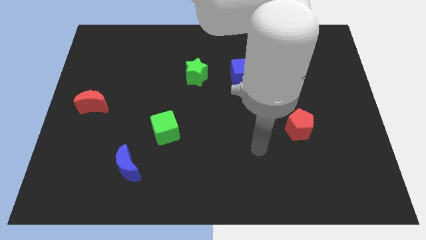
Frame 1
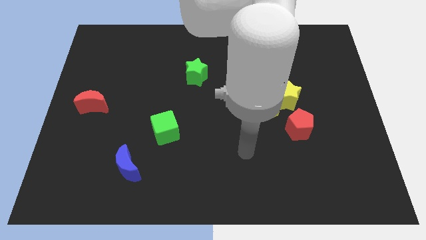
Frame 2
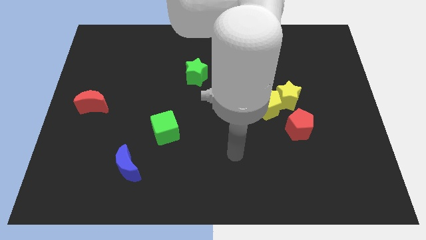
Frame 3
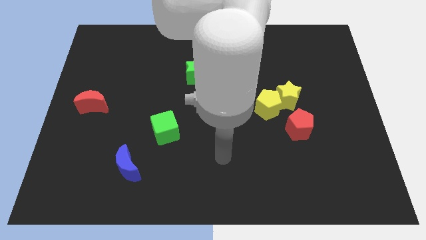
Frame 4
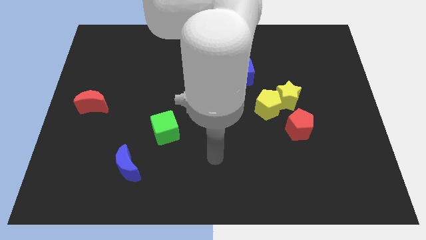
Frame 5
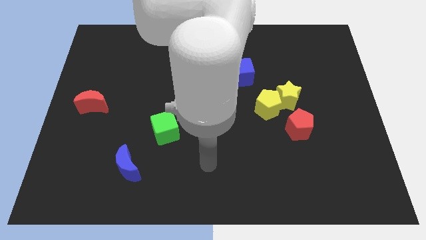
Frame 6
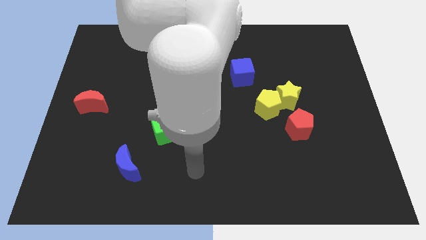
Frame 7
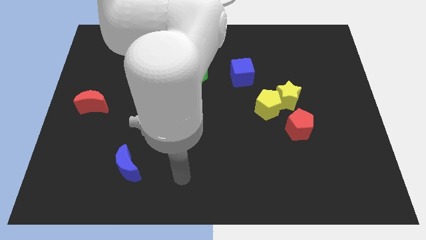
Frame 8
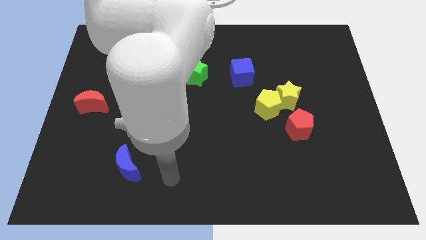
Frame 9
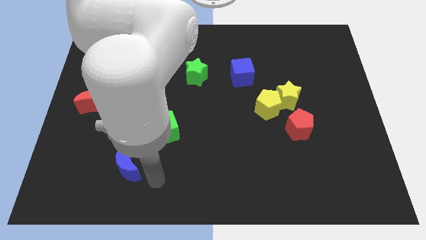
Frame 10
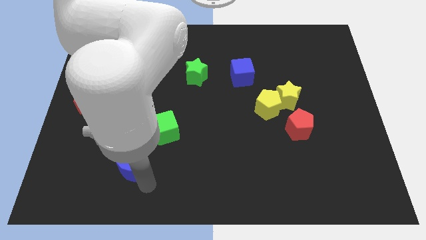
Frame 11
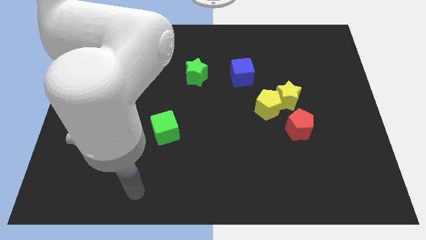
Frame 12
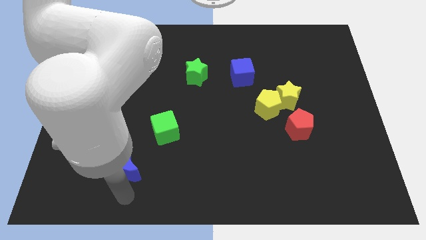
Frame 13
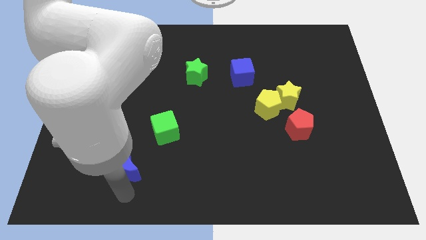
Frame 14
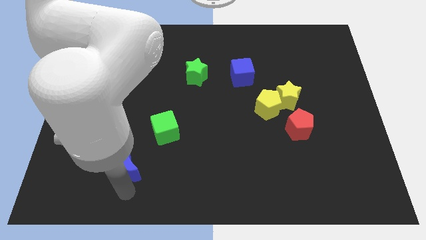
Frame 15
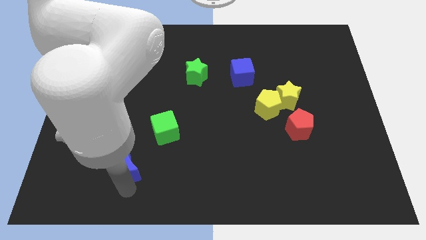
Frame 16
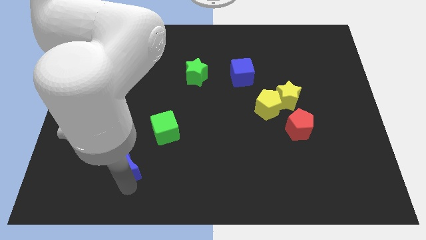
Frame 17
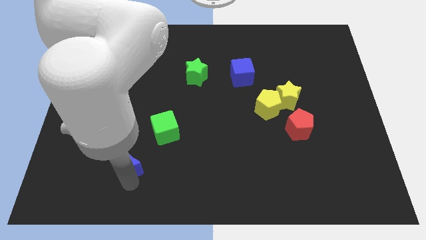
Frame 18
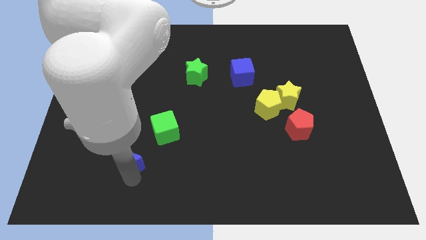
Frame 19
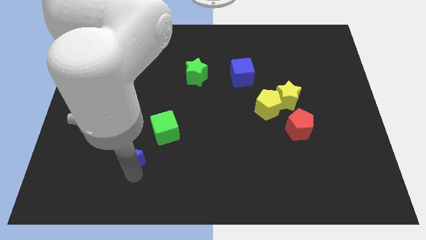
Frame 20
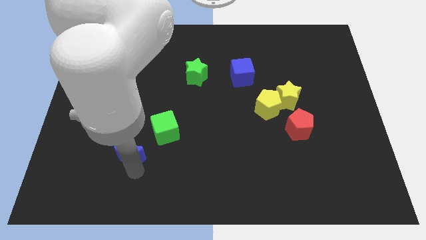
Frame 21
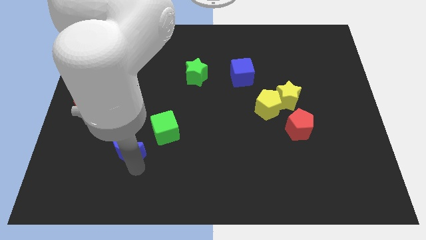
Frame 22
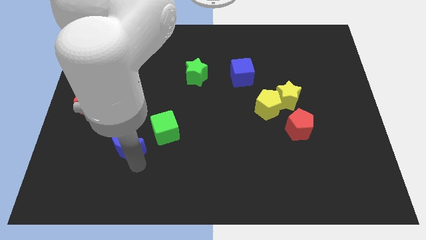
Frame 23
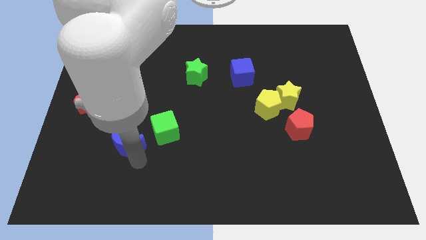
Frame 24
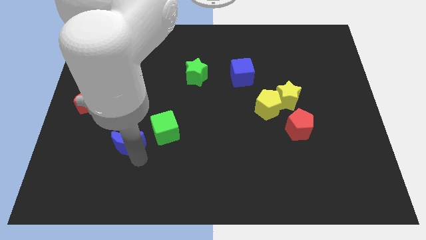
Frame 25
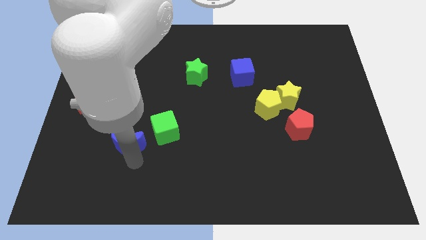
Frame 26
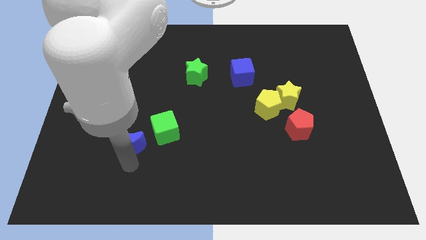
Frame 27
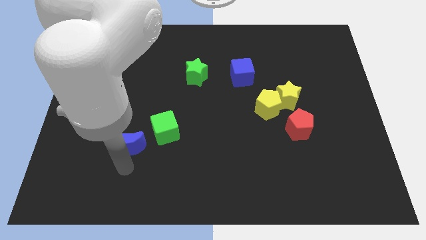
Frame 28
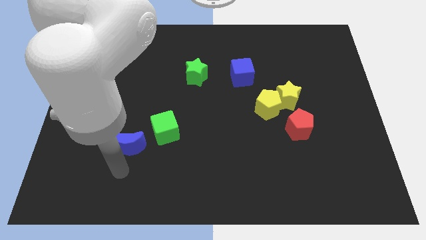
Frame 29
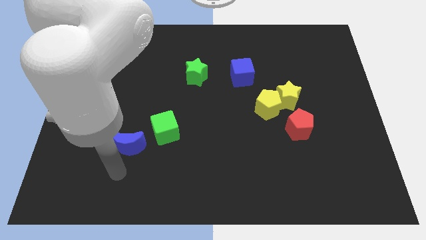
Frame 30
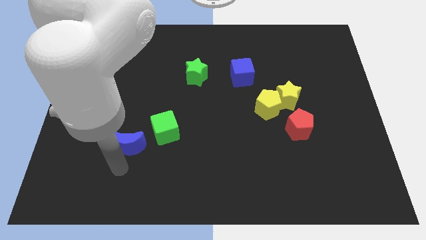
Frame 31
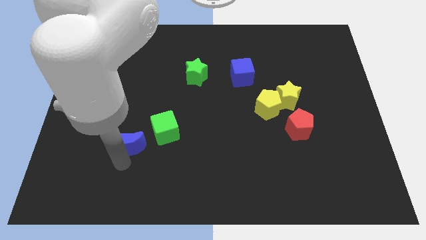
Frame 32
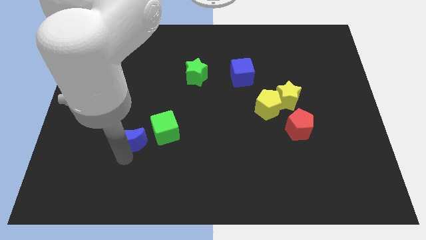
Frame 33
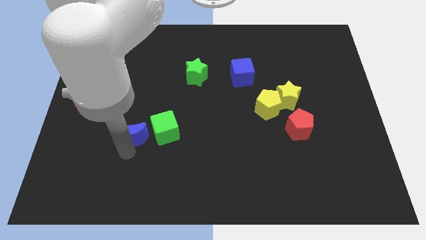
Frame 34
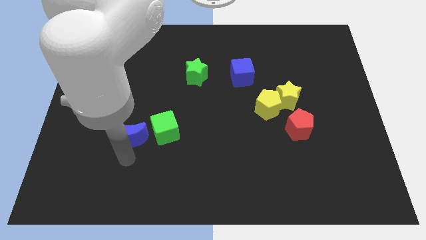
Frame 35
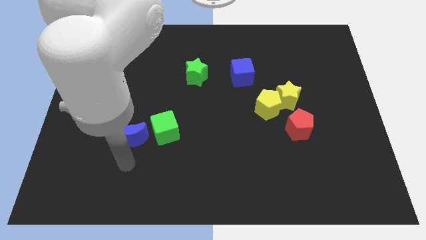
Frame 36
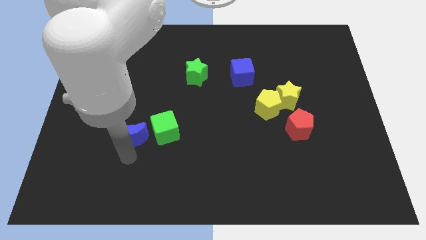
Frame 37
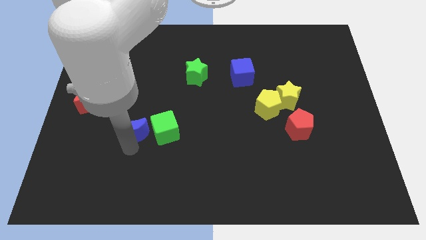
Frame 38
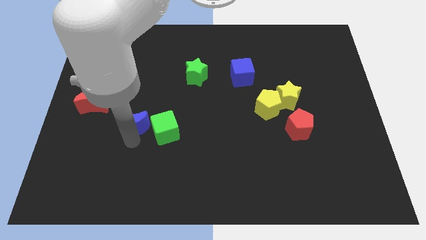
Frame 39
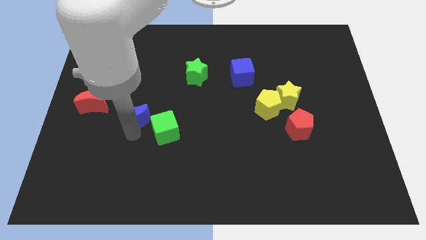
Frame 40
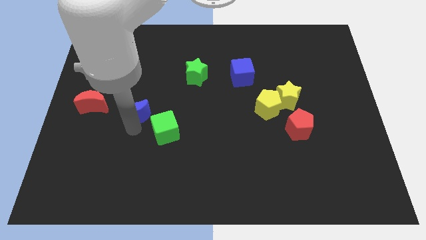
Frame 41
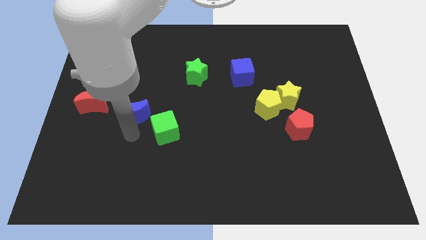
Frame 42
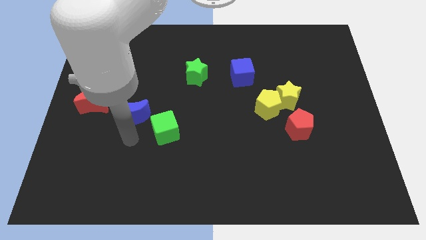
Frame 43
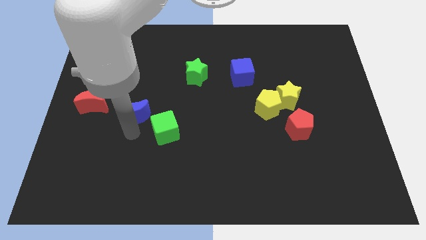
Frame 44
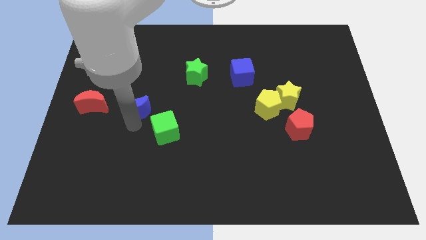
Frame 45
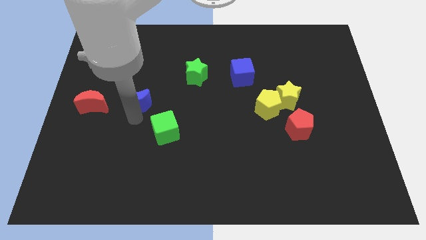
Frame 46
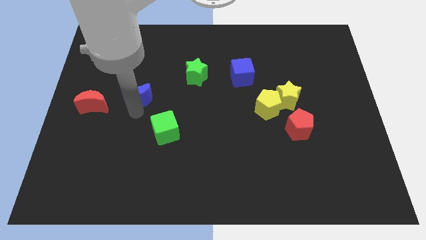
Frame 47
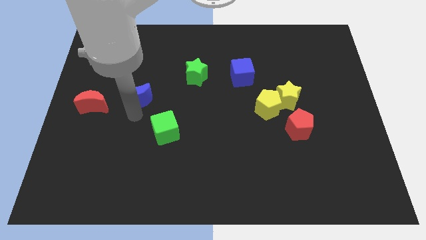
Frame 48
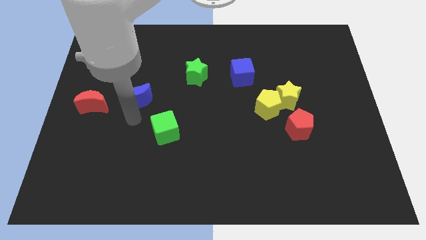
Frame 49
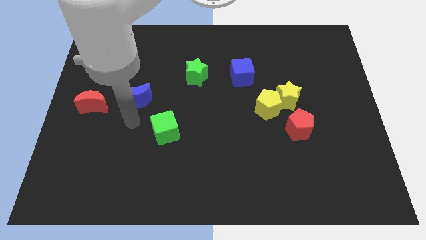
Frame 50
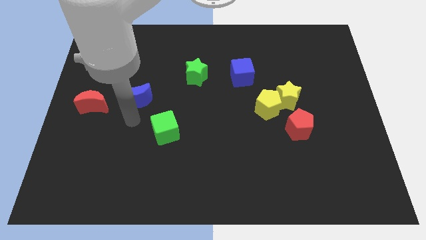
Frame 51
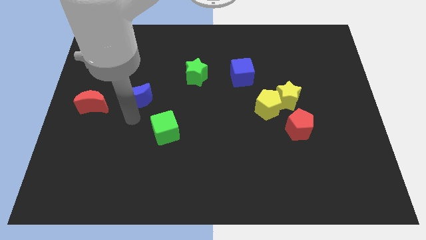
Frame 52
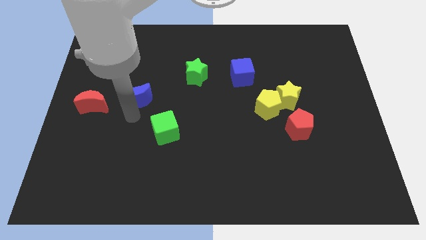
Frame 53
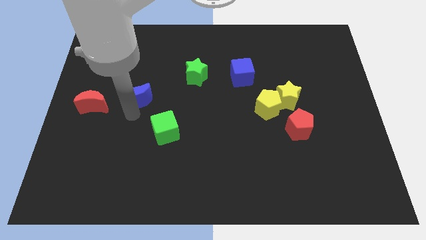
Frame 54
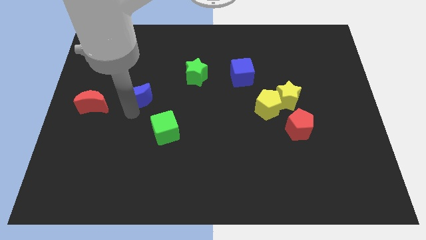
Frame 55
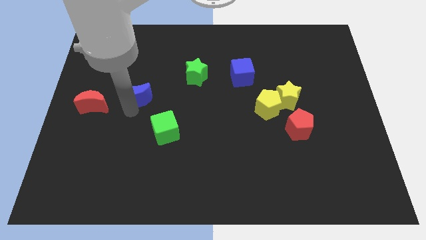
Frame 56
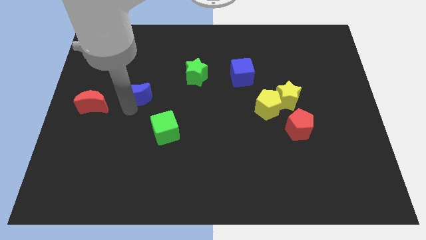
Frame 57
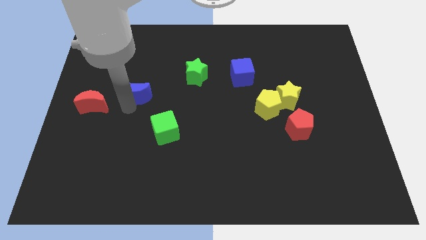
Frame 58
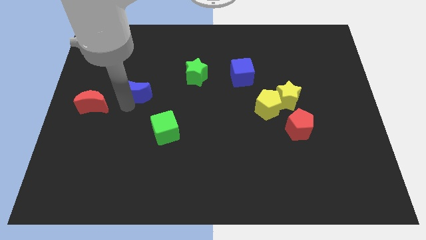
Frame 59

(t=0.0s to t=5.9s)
move the blue moon upwards

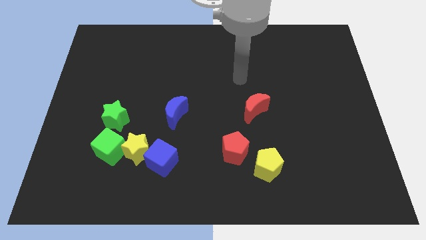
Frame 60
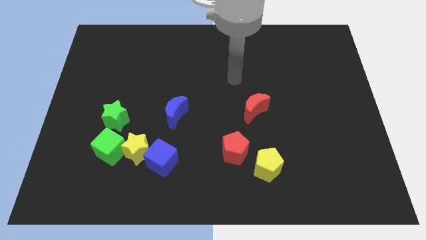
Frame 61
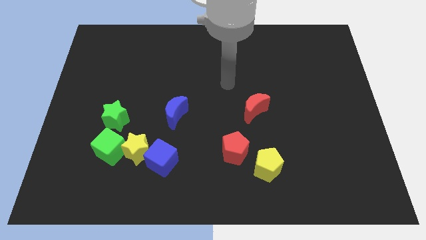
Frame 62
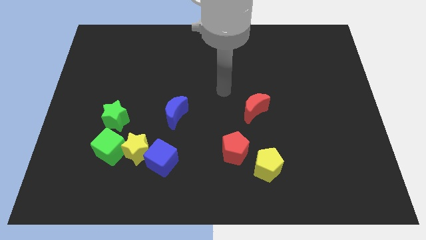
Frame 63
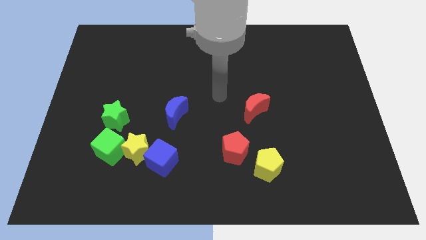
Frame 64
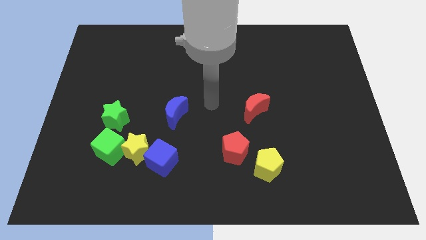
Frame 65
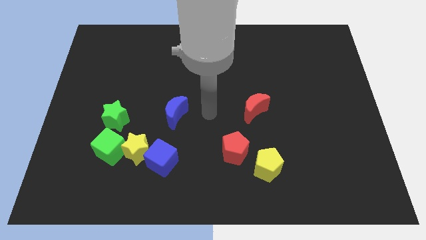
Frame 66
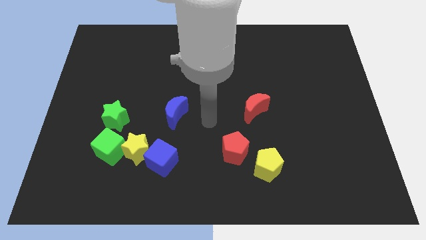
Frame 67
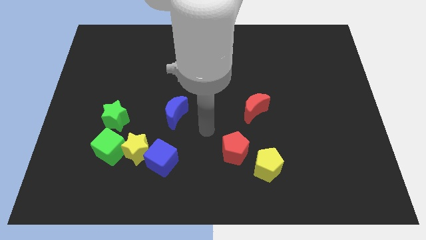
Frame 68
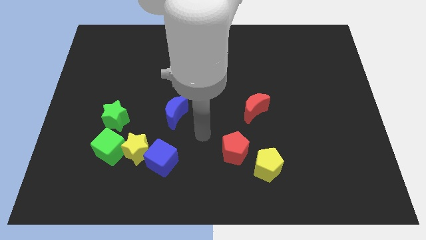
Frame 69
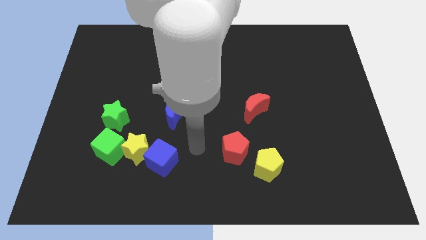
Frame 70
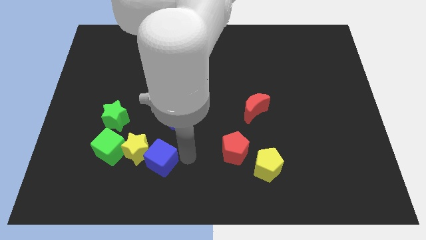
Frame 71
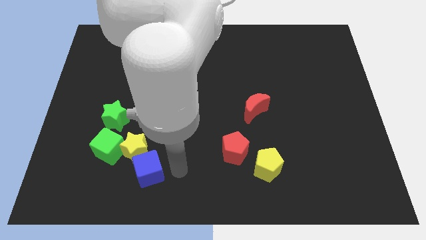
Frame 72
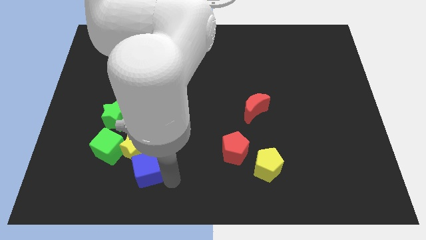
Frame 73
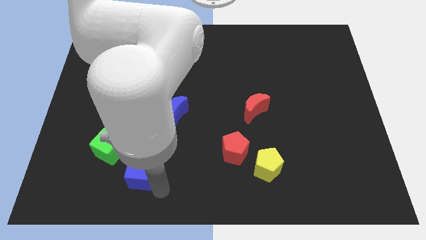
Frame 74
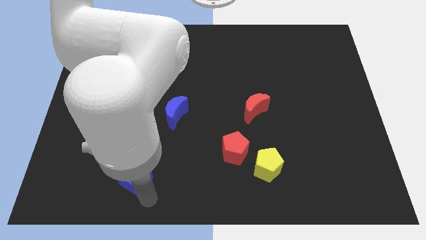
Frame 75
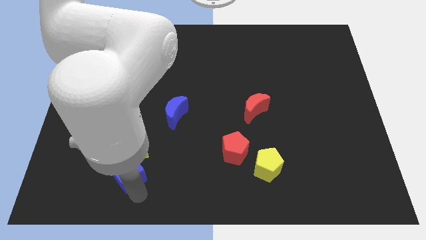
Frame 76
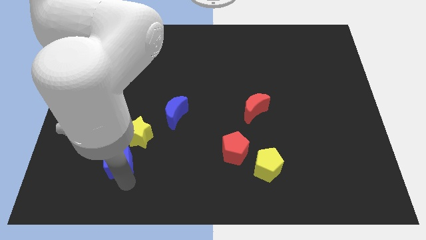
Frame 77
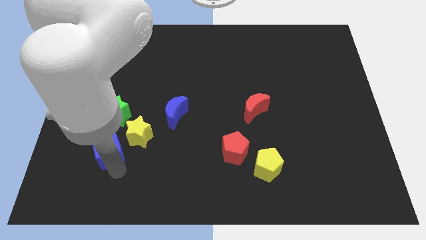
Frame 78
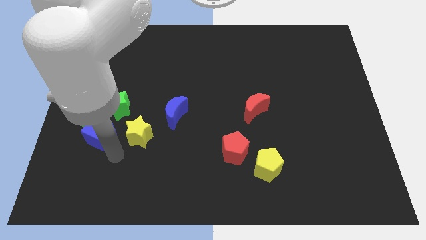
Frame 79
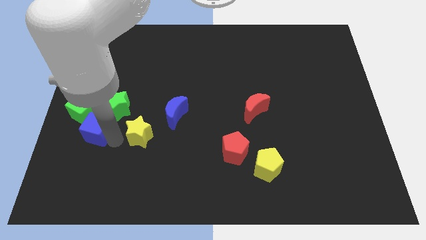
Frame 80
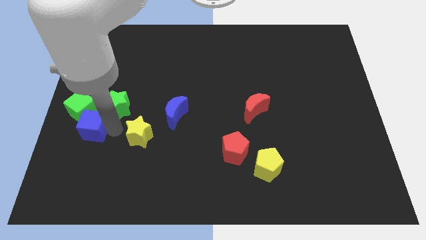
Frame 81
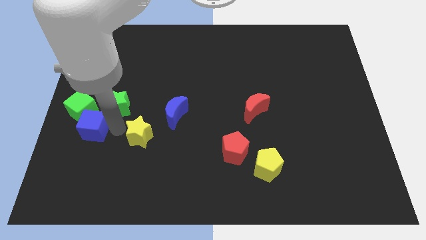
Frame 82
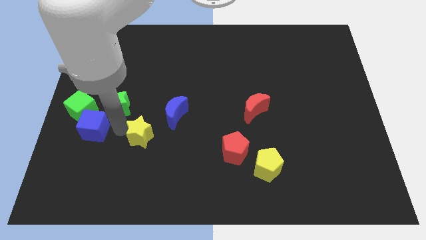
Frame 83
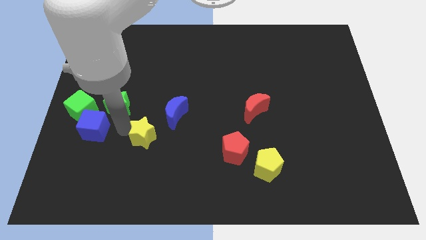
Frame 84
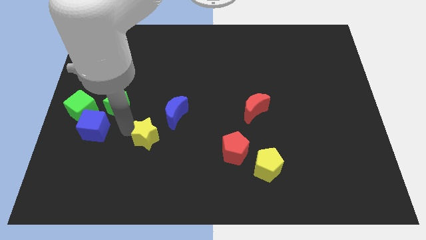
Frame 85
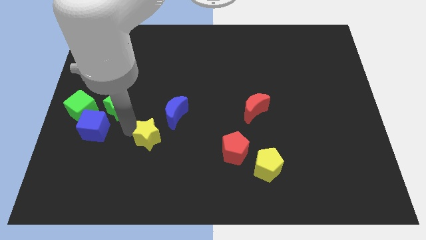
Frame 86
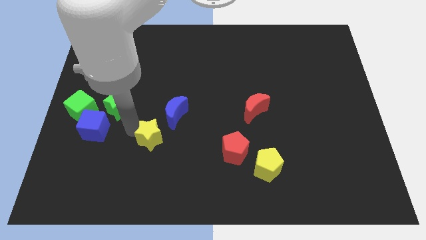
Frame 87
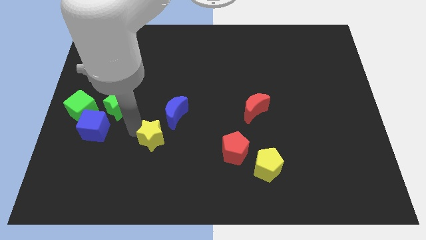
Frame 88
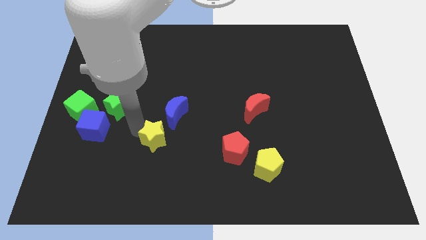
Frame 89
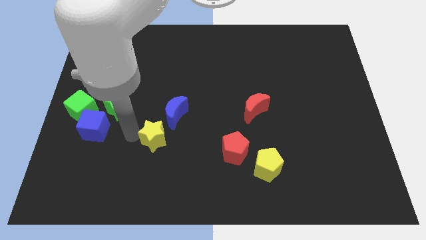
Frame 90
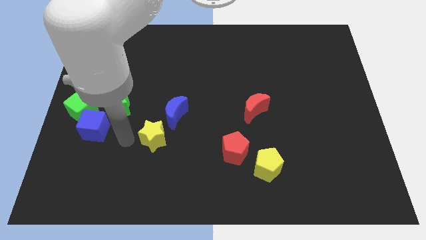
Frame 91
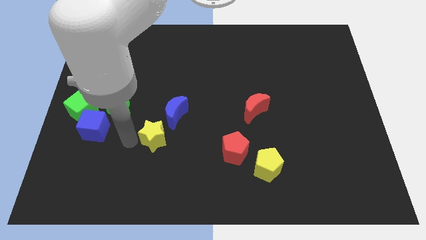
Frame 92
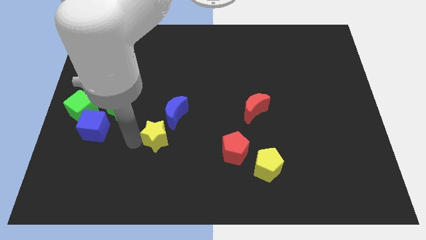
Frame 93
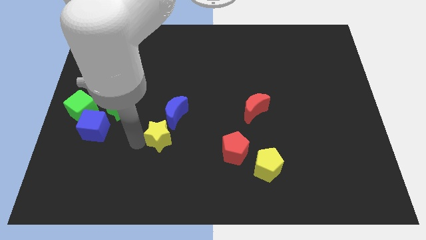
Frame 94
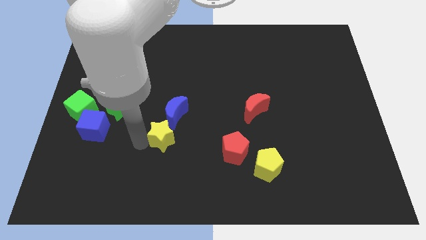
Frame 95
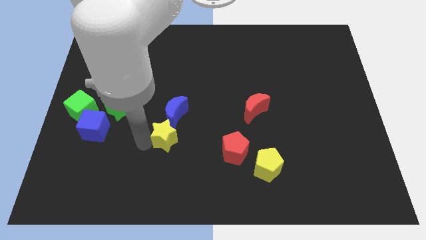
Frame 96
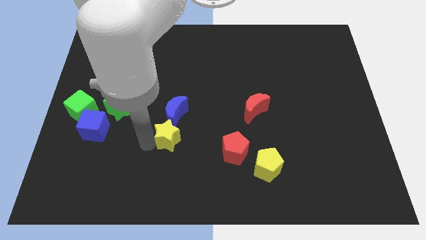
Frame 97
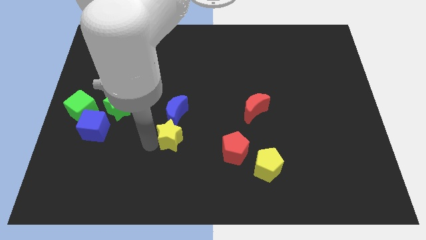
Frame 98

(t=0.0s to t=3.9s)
slightly push the yellow star up and then right
